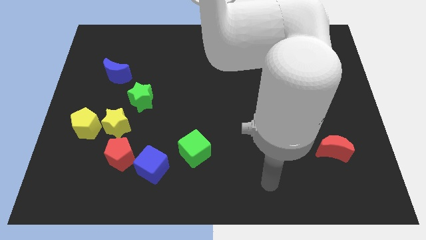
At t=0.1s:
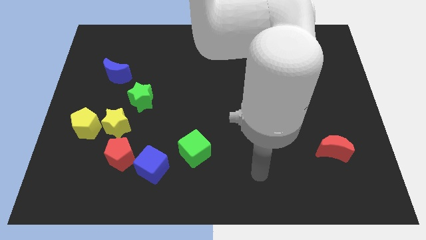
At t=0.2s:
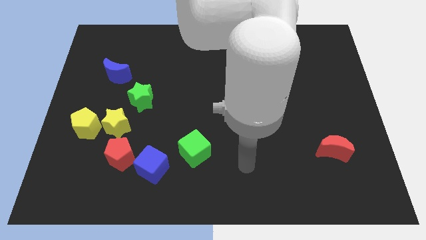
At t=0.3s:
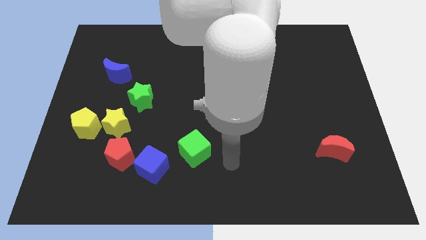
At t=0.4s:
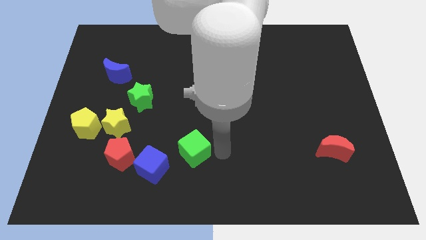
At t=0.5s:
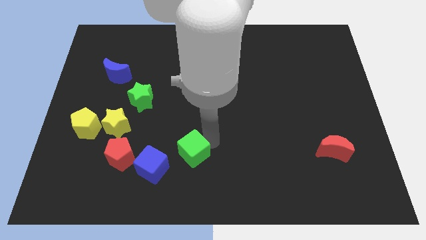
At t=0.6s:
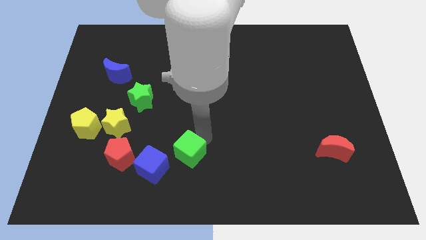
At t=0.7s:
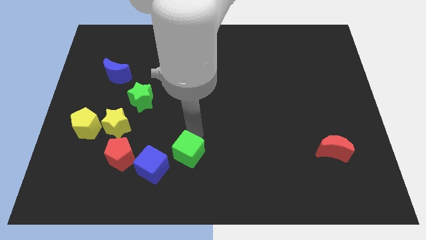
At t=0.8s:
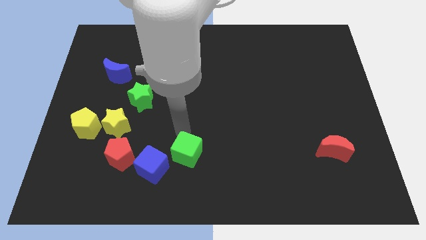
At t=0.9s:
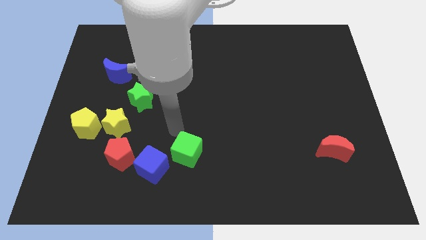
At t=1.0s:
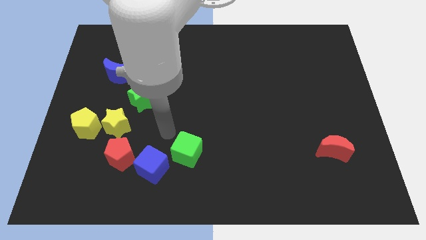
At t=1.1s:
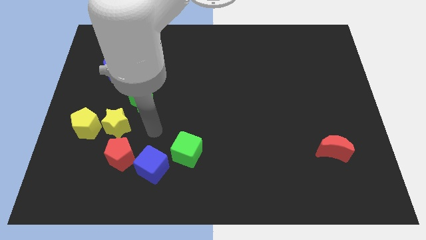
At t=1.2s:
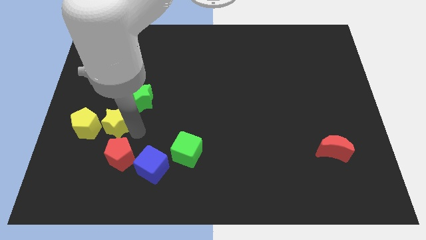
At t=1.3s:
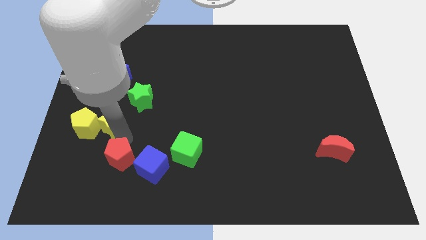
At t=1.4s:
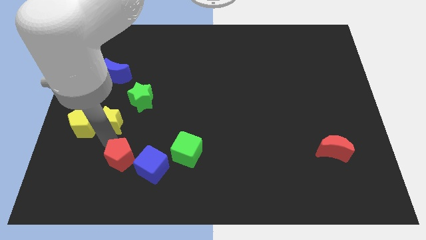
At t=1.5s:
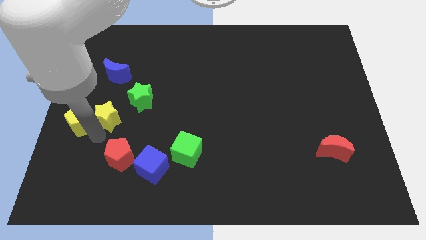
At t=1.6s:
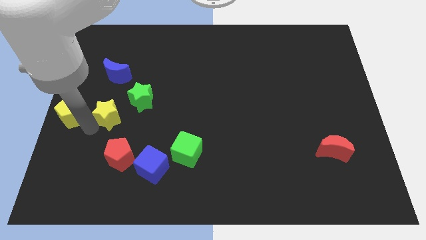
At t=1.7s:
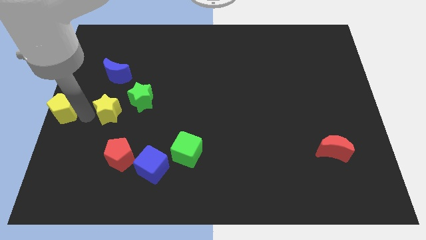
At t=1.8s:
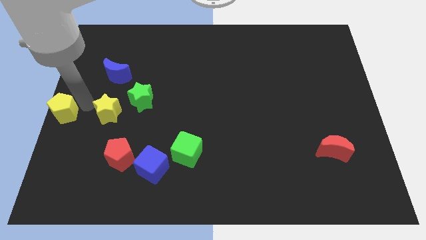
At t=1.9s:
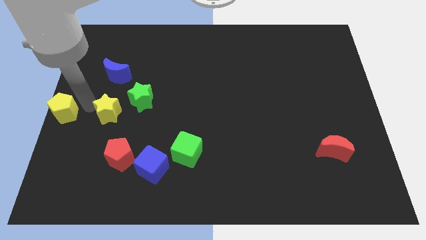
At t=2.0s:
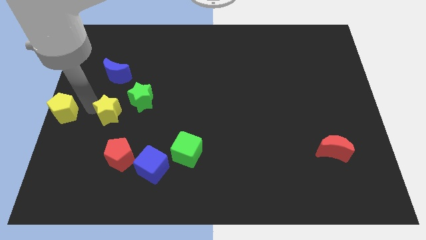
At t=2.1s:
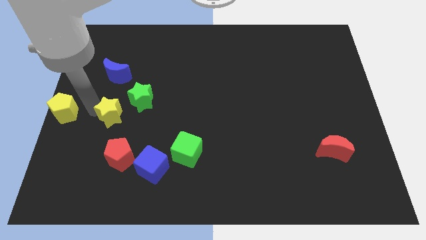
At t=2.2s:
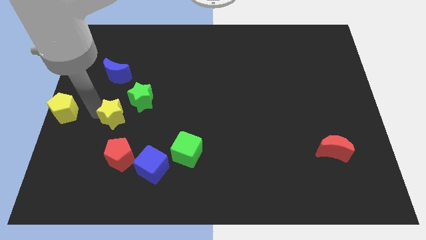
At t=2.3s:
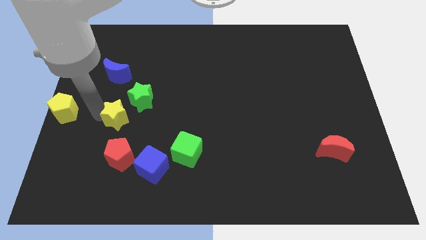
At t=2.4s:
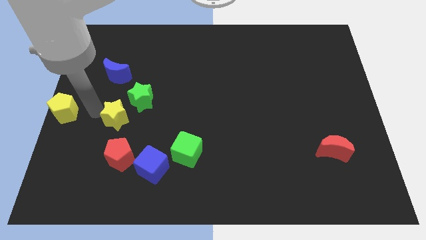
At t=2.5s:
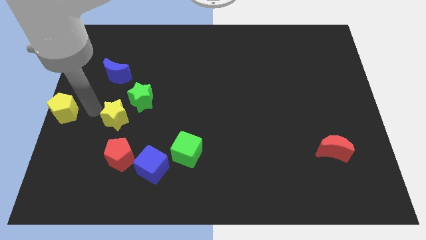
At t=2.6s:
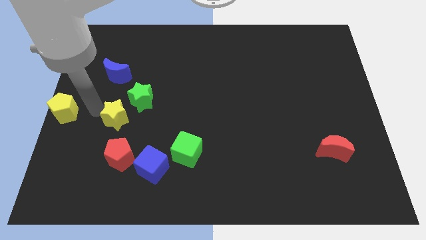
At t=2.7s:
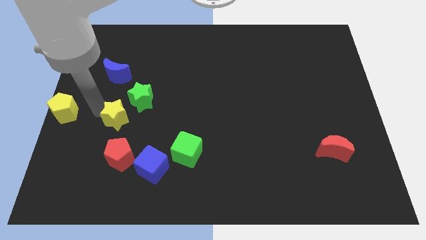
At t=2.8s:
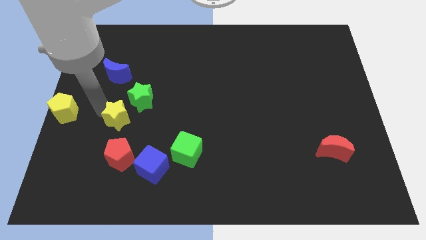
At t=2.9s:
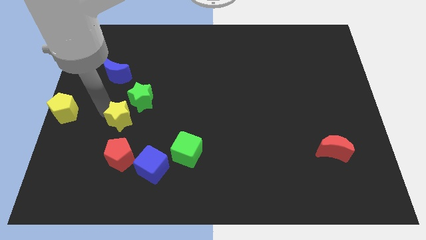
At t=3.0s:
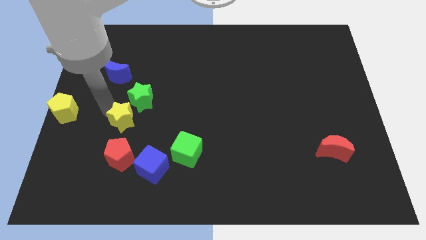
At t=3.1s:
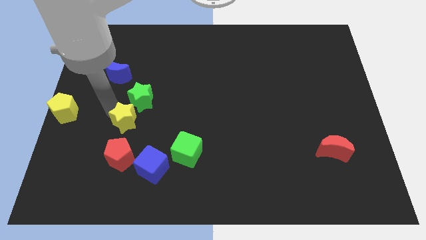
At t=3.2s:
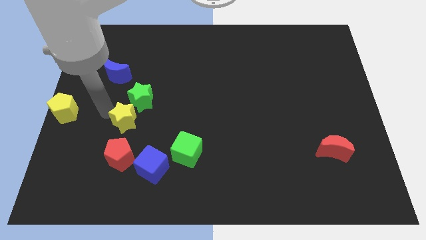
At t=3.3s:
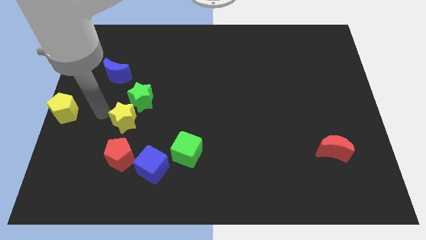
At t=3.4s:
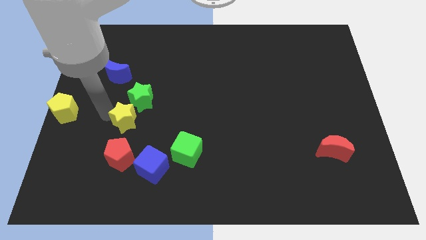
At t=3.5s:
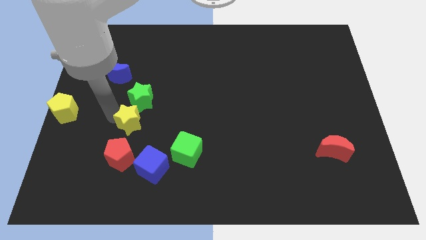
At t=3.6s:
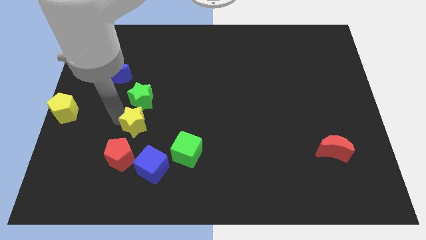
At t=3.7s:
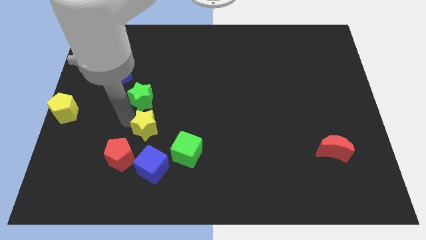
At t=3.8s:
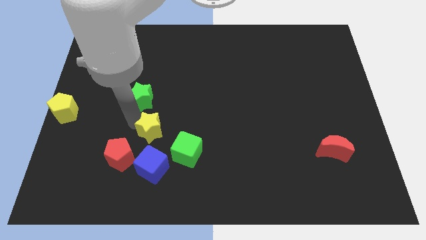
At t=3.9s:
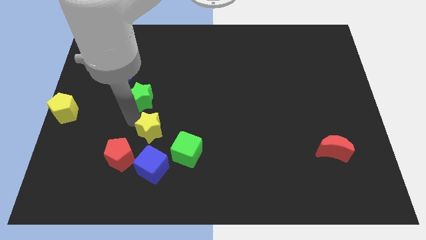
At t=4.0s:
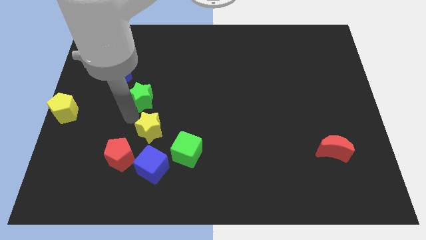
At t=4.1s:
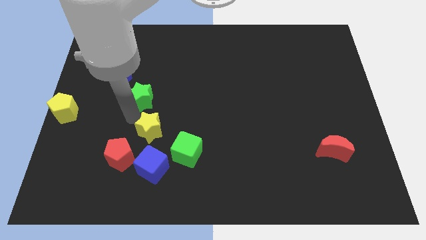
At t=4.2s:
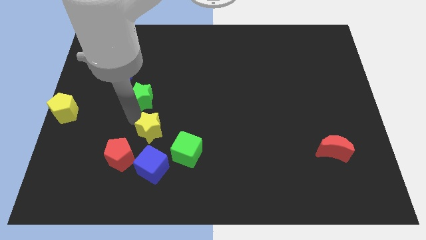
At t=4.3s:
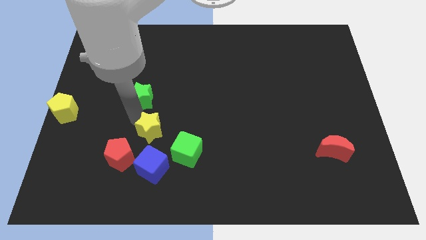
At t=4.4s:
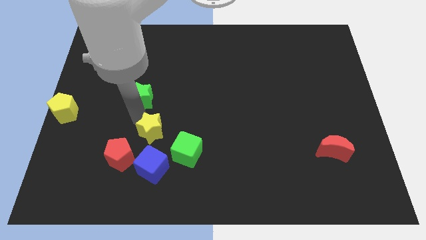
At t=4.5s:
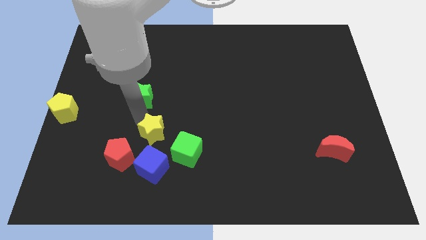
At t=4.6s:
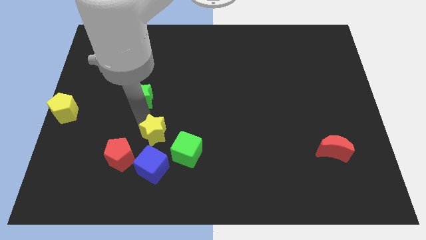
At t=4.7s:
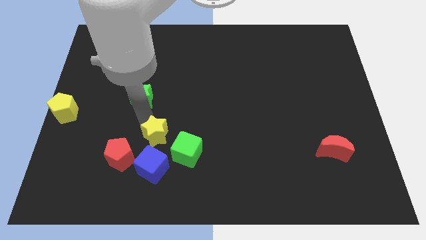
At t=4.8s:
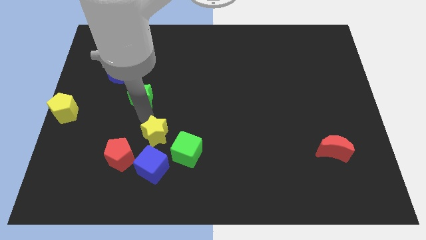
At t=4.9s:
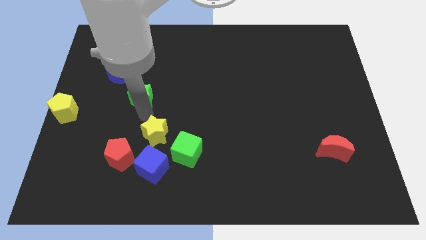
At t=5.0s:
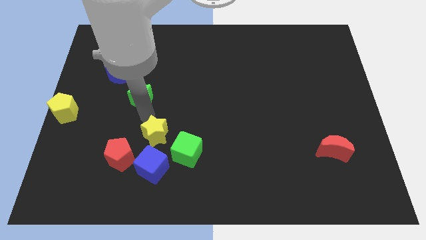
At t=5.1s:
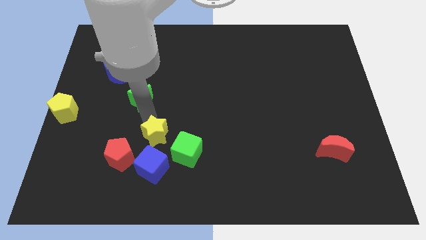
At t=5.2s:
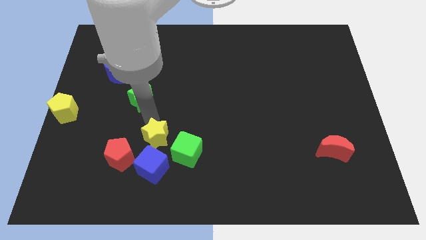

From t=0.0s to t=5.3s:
push the yellow star to the right of the red pentagon

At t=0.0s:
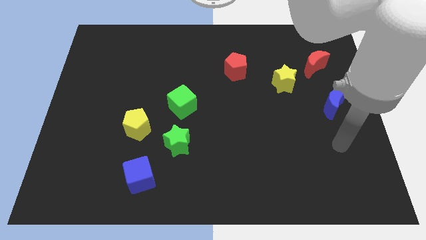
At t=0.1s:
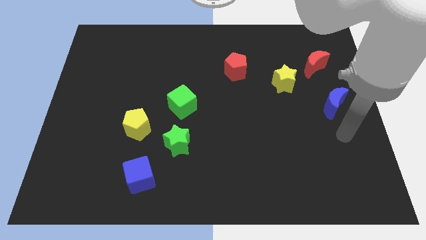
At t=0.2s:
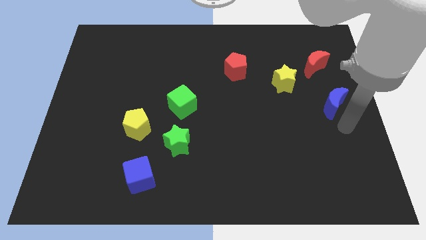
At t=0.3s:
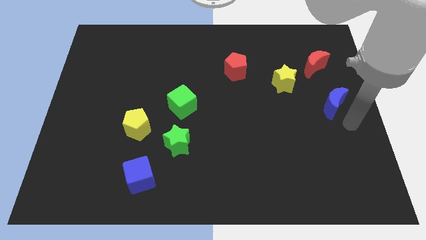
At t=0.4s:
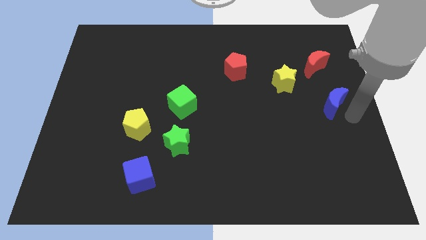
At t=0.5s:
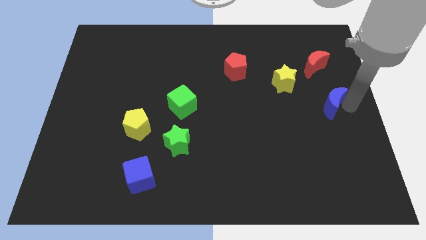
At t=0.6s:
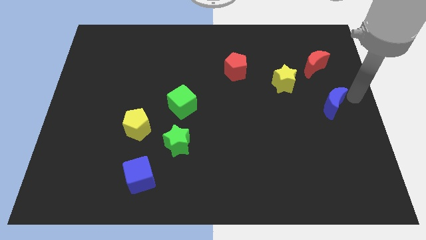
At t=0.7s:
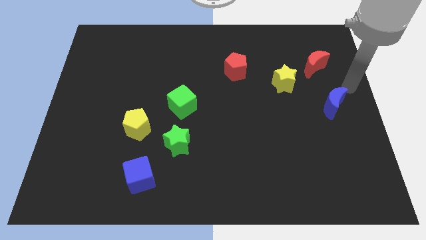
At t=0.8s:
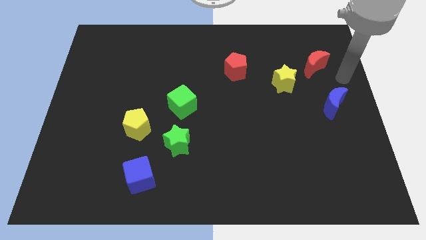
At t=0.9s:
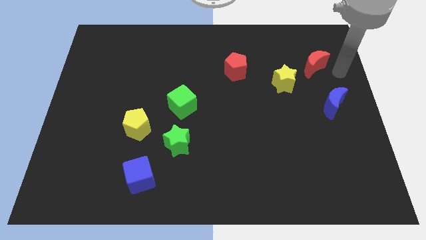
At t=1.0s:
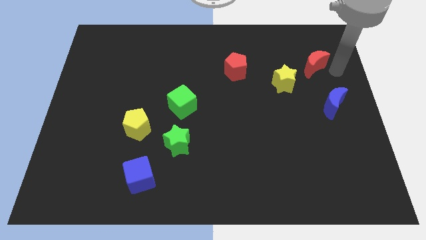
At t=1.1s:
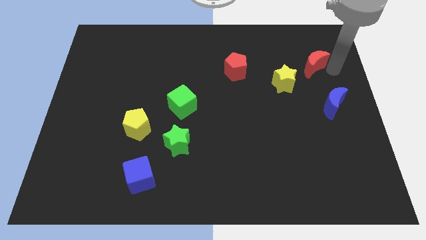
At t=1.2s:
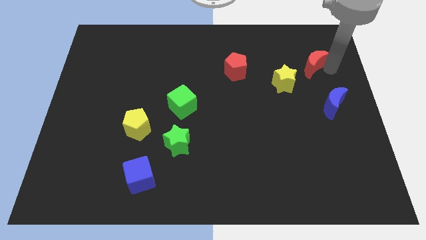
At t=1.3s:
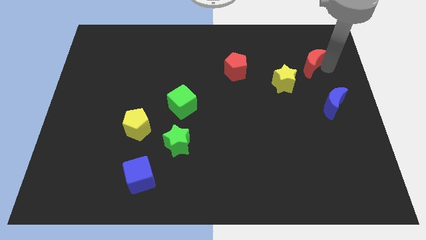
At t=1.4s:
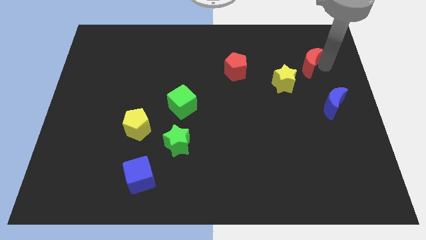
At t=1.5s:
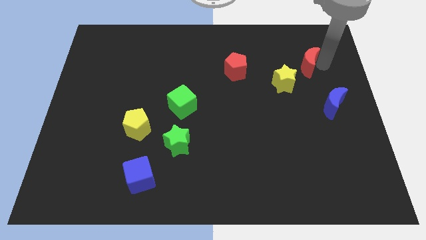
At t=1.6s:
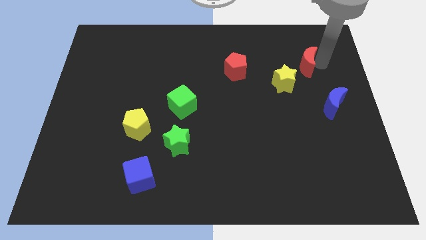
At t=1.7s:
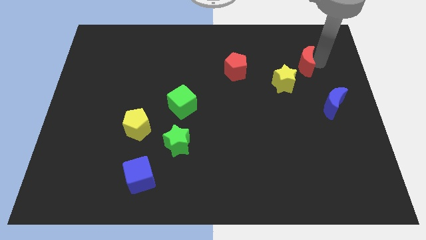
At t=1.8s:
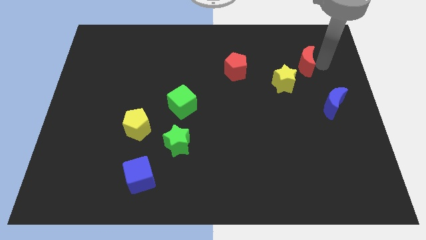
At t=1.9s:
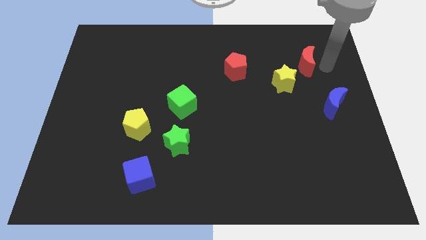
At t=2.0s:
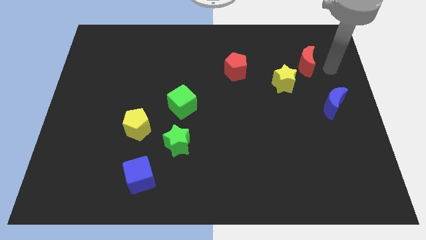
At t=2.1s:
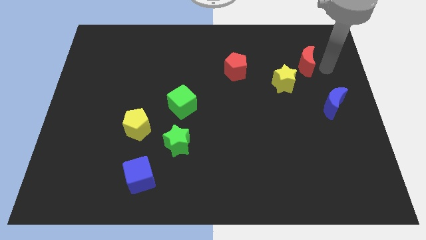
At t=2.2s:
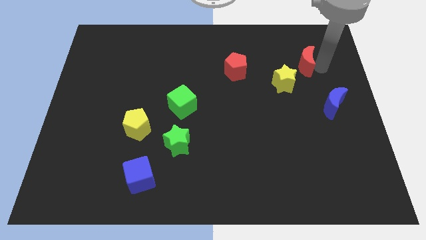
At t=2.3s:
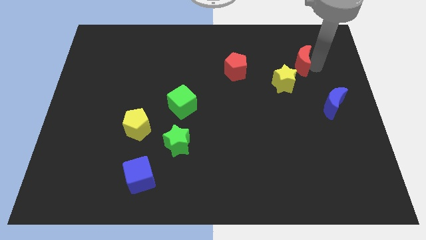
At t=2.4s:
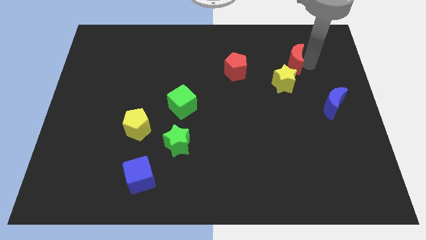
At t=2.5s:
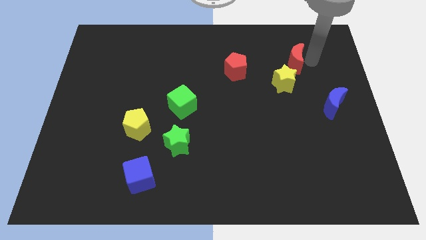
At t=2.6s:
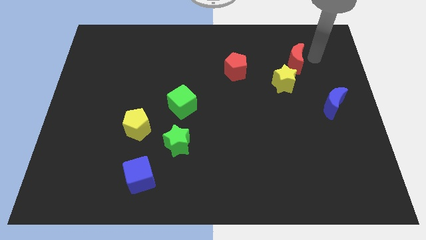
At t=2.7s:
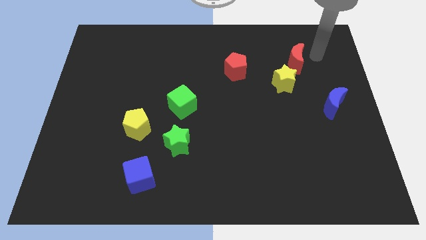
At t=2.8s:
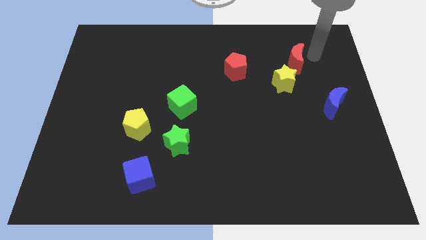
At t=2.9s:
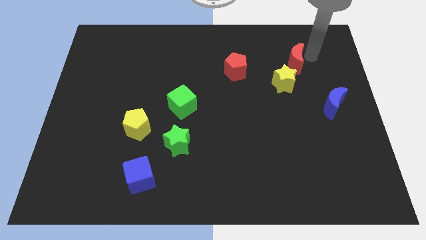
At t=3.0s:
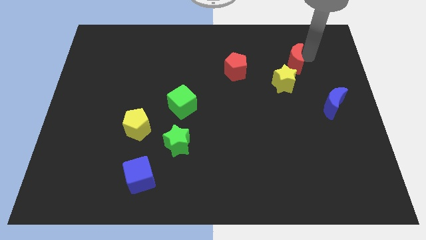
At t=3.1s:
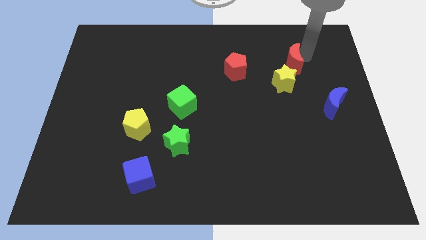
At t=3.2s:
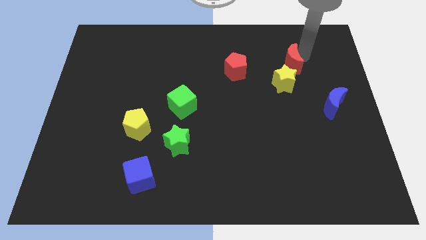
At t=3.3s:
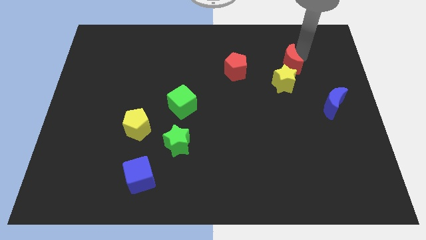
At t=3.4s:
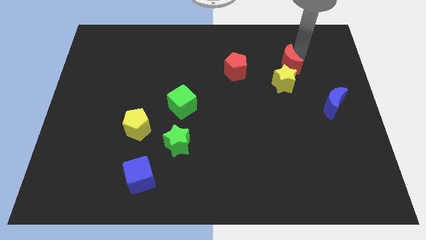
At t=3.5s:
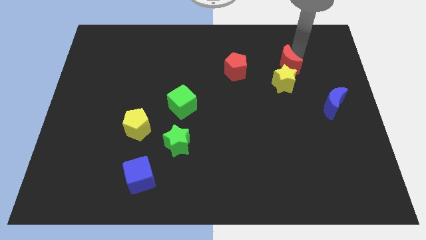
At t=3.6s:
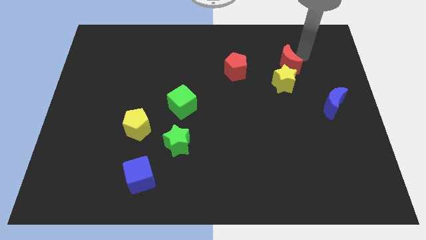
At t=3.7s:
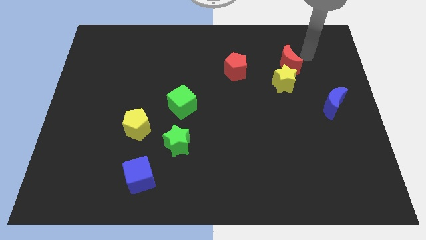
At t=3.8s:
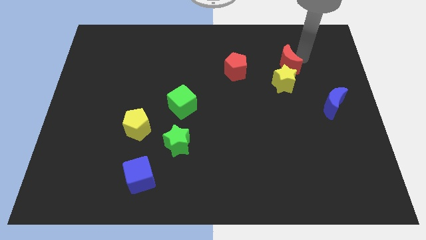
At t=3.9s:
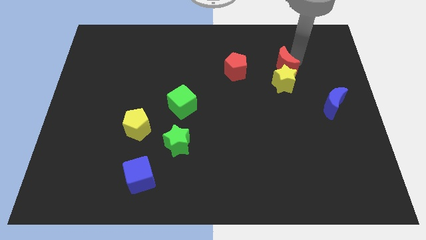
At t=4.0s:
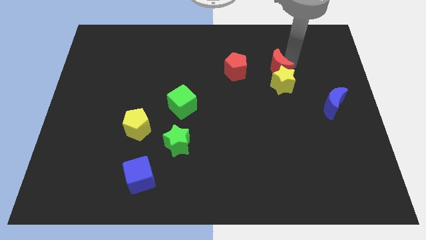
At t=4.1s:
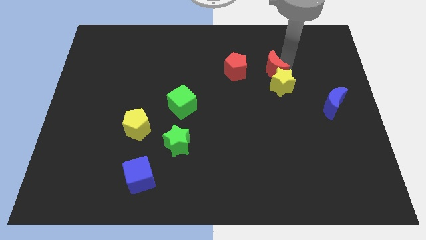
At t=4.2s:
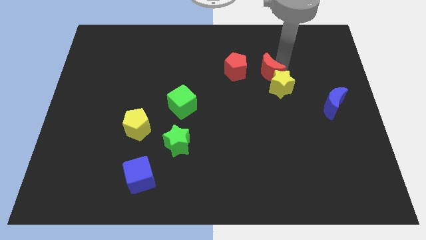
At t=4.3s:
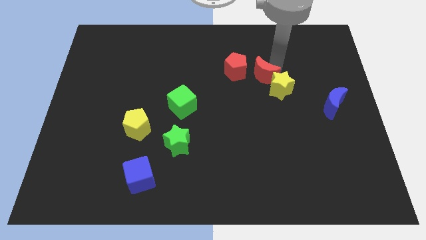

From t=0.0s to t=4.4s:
push the red moon to the bottom right of the red pentagon
